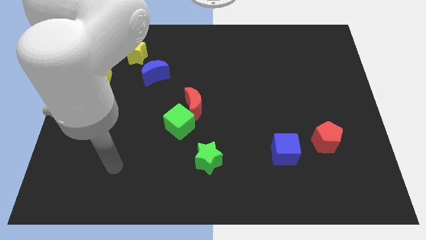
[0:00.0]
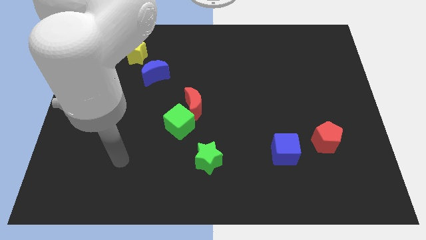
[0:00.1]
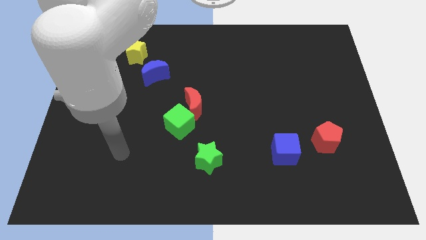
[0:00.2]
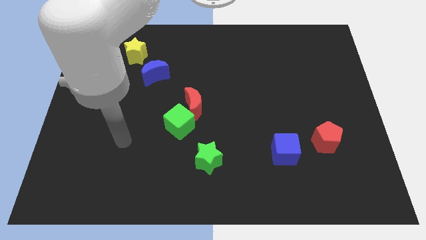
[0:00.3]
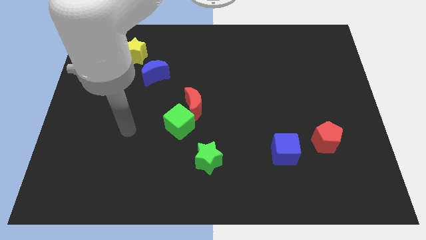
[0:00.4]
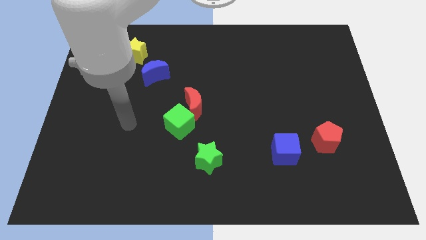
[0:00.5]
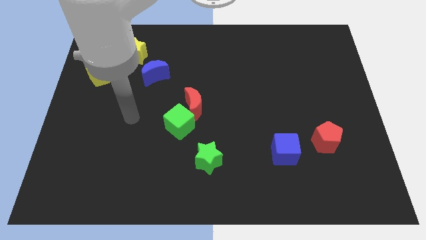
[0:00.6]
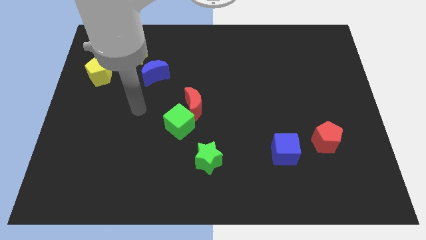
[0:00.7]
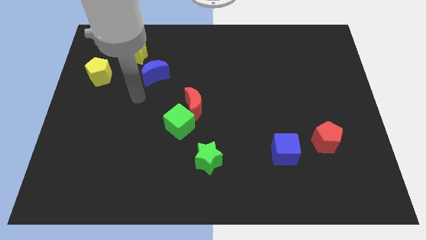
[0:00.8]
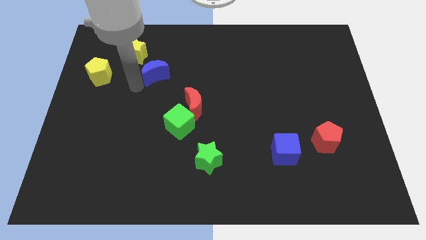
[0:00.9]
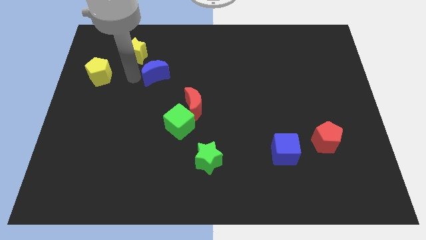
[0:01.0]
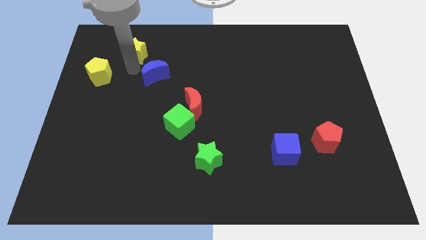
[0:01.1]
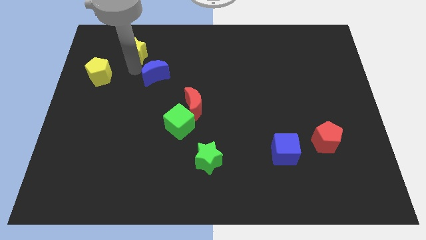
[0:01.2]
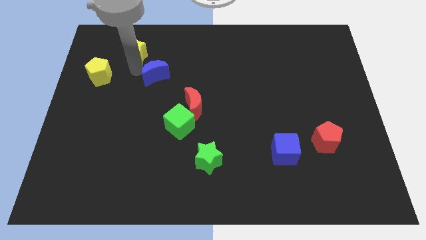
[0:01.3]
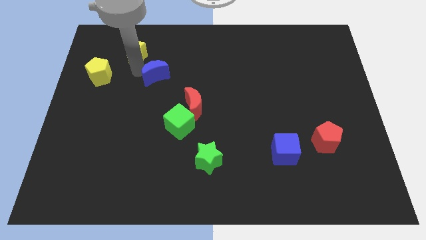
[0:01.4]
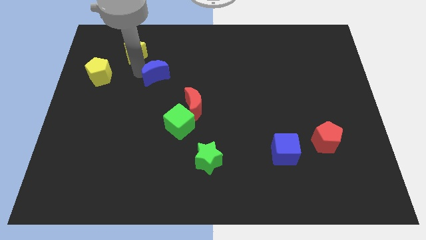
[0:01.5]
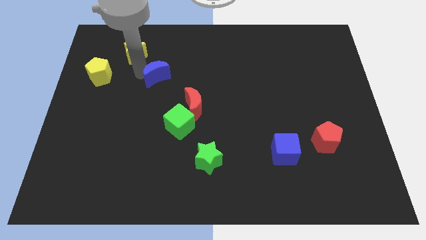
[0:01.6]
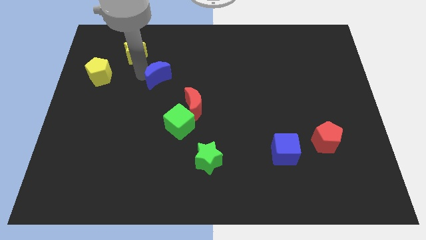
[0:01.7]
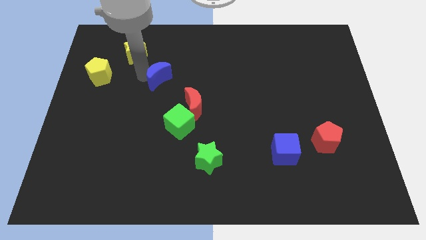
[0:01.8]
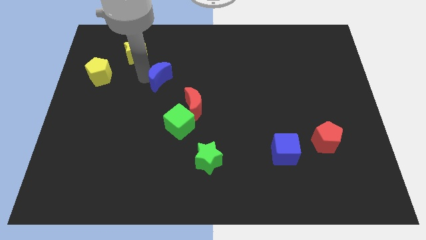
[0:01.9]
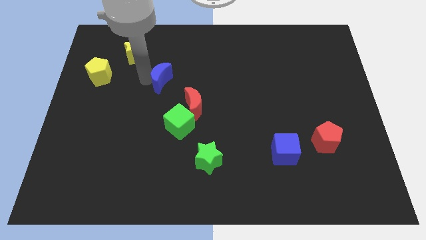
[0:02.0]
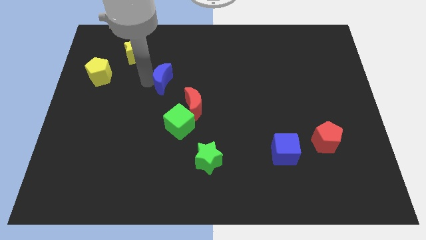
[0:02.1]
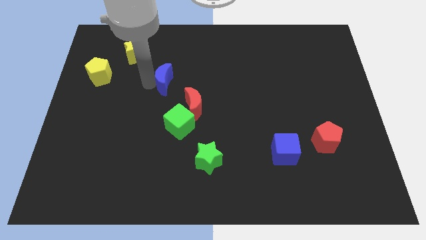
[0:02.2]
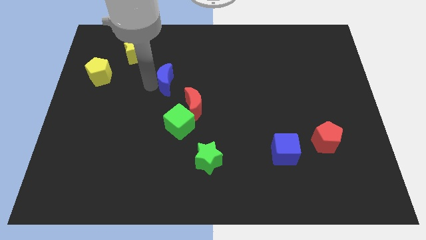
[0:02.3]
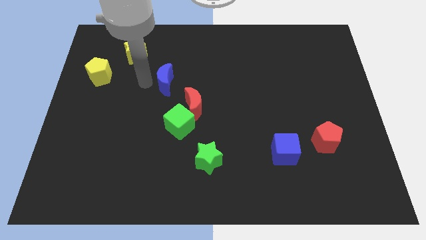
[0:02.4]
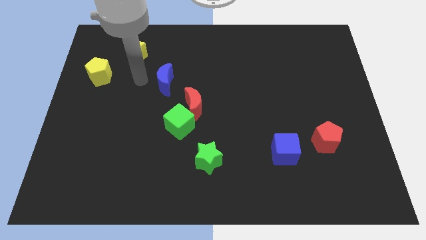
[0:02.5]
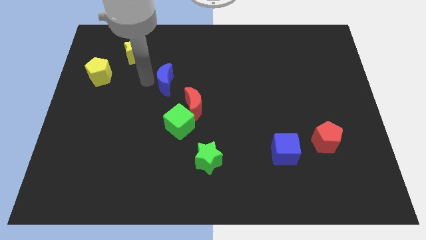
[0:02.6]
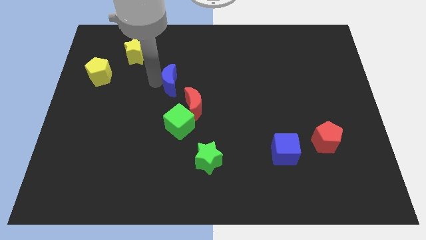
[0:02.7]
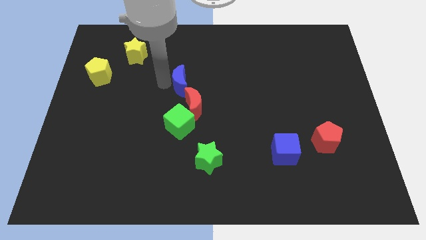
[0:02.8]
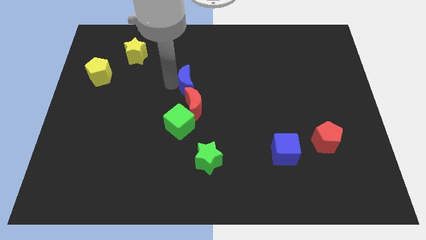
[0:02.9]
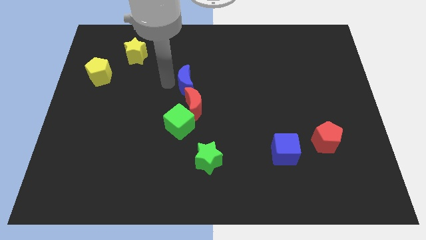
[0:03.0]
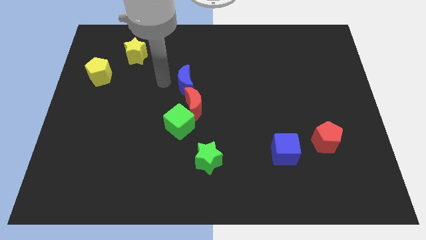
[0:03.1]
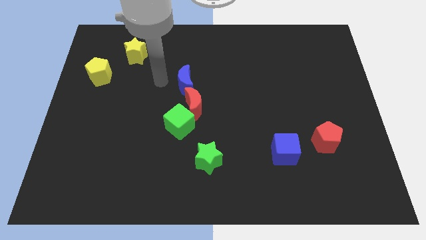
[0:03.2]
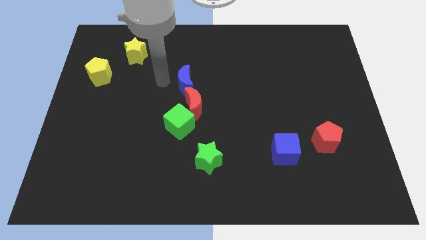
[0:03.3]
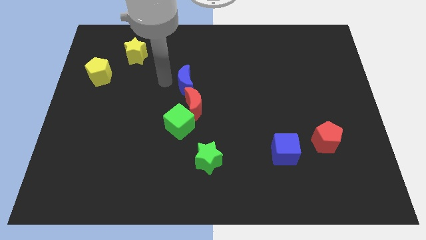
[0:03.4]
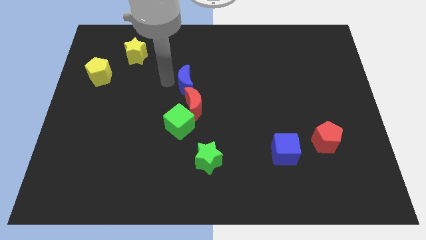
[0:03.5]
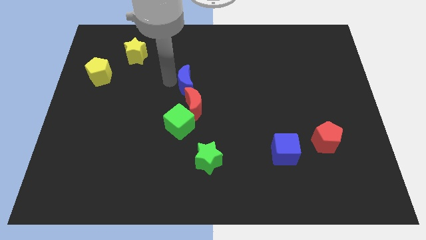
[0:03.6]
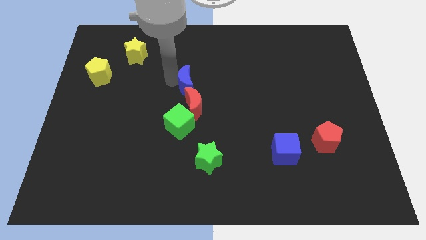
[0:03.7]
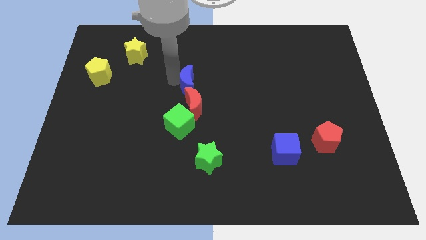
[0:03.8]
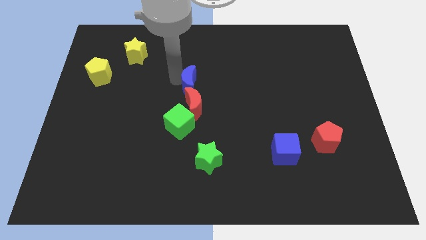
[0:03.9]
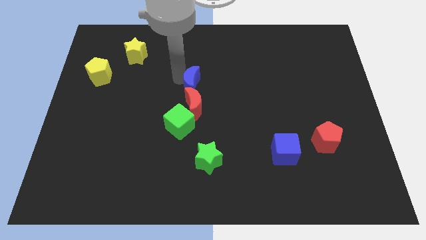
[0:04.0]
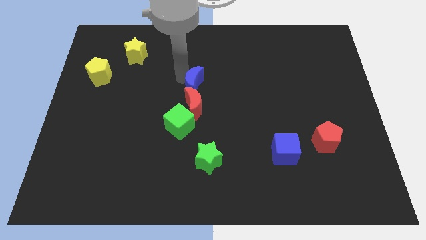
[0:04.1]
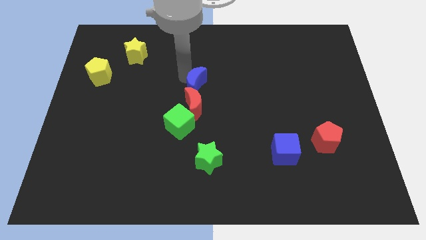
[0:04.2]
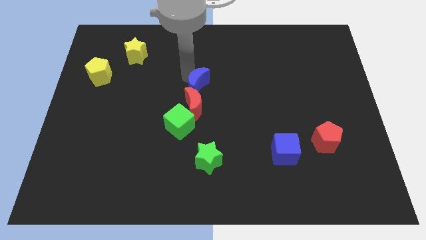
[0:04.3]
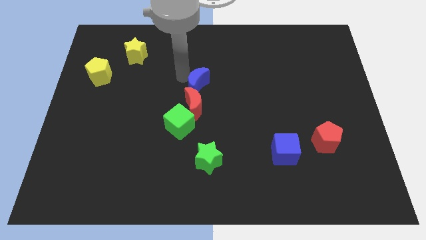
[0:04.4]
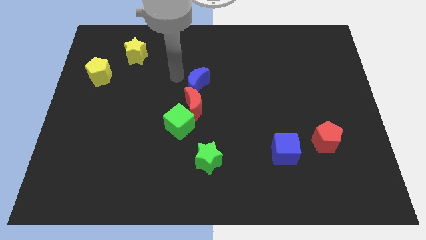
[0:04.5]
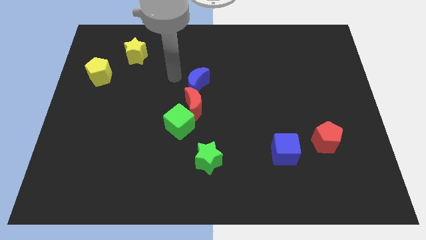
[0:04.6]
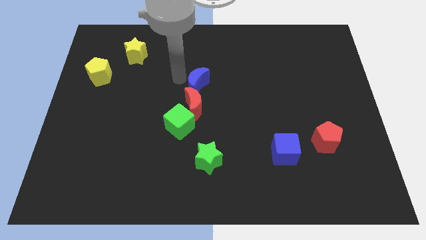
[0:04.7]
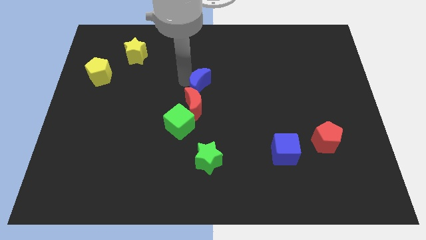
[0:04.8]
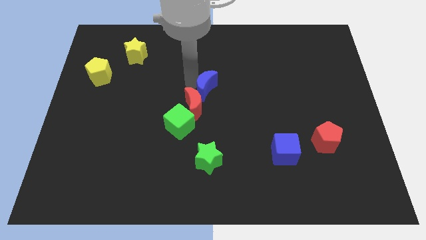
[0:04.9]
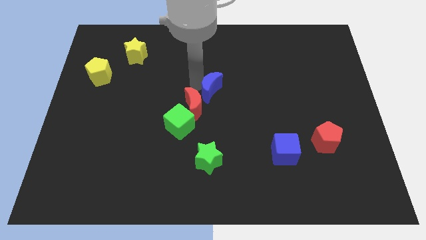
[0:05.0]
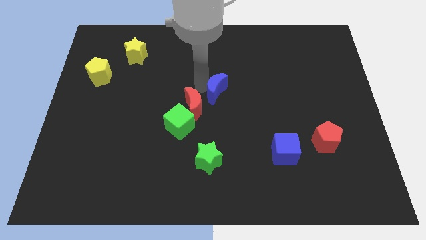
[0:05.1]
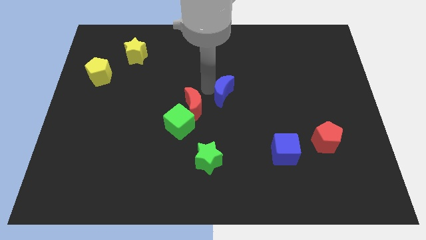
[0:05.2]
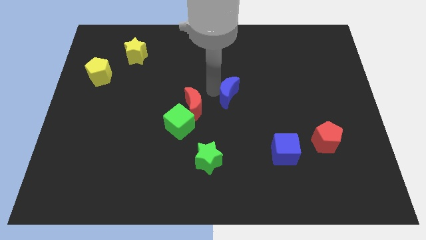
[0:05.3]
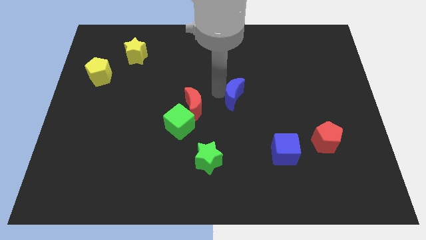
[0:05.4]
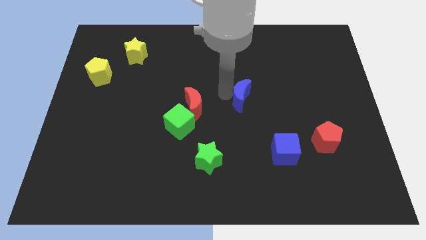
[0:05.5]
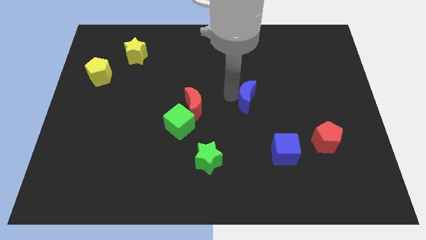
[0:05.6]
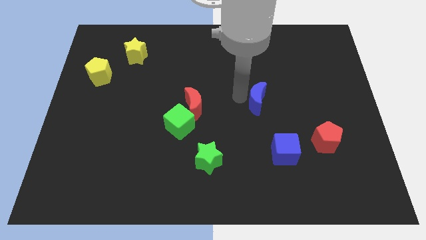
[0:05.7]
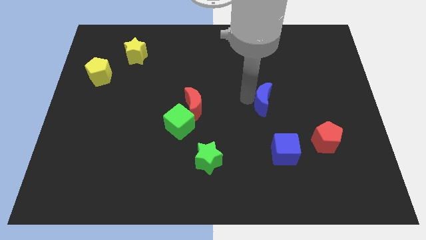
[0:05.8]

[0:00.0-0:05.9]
put the blue moon to the top of the blue cube

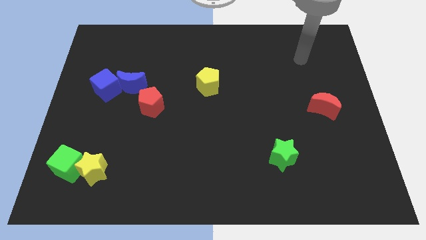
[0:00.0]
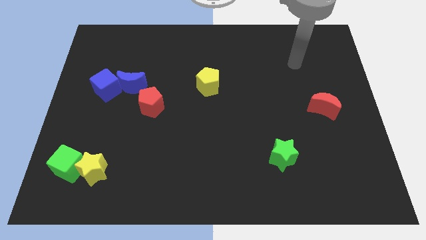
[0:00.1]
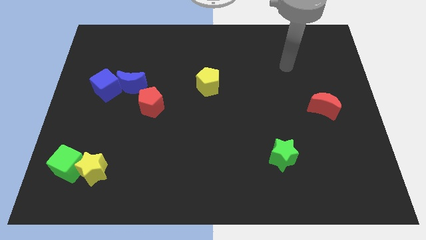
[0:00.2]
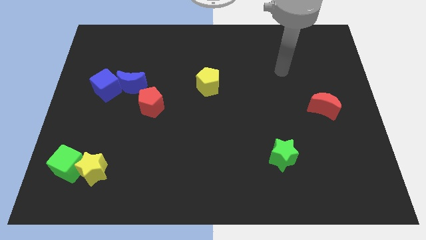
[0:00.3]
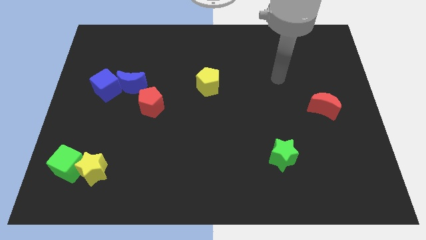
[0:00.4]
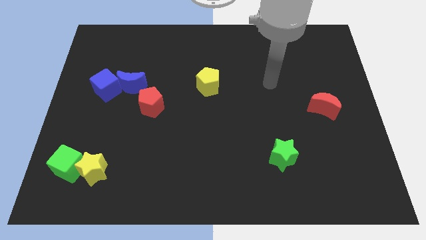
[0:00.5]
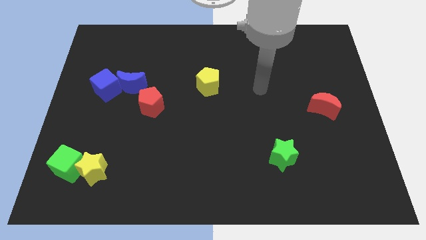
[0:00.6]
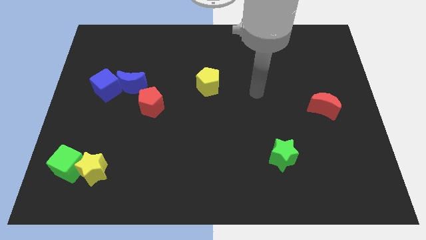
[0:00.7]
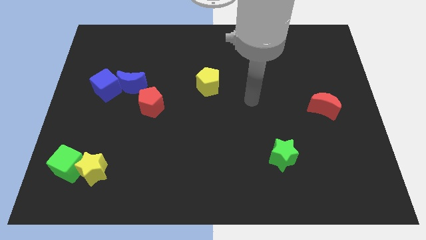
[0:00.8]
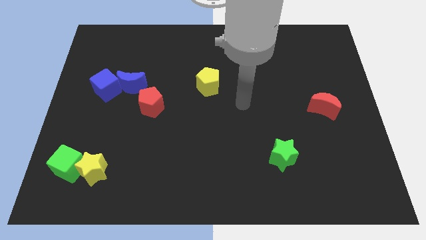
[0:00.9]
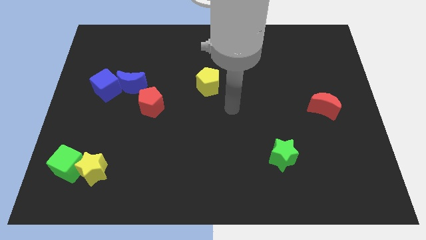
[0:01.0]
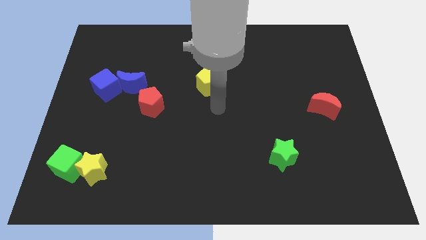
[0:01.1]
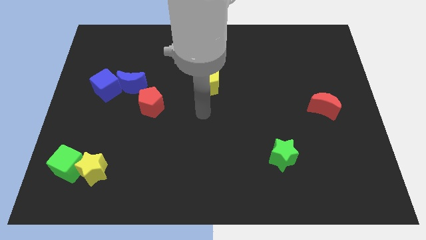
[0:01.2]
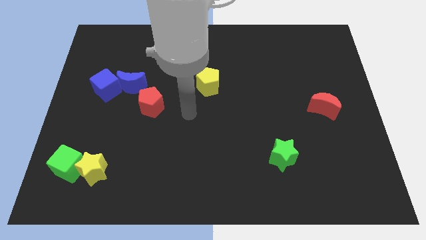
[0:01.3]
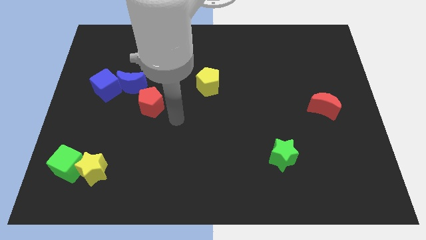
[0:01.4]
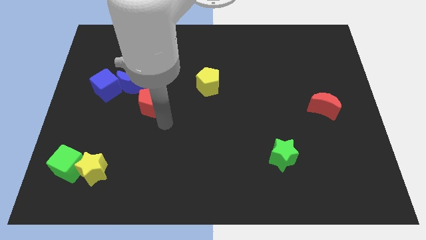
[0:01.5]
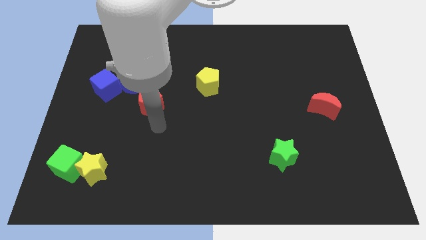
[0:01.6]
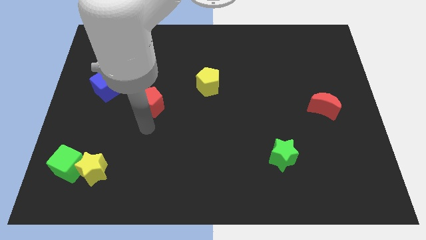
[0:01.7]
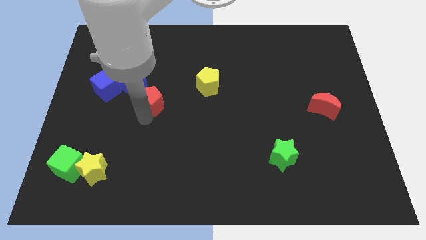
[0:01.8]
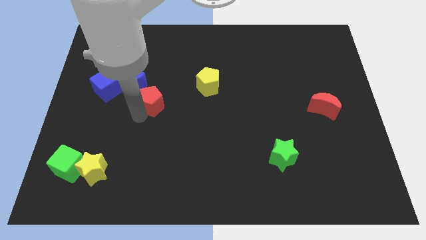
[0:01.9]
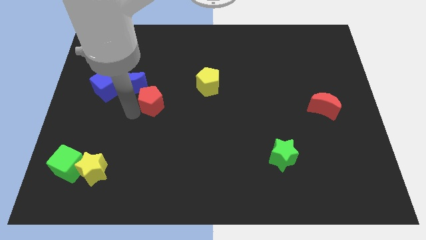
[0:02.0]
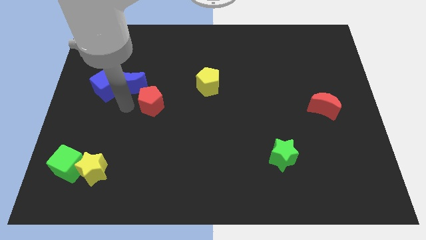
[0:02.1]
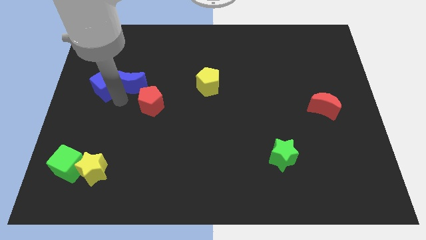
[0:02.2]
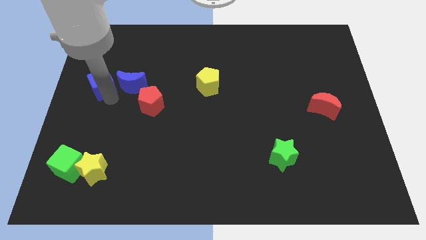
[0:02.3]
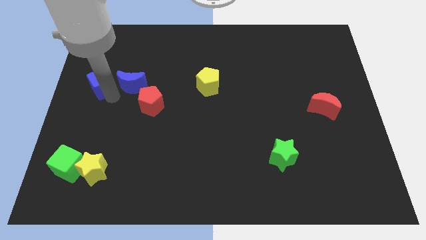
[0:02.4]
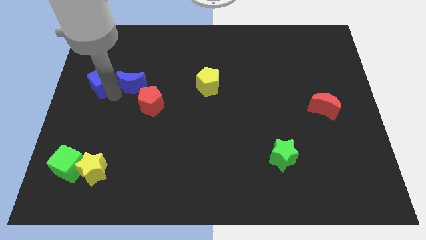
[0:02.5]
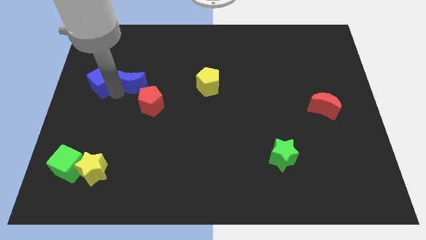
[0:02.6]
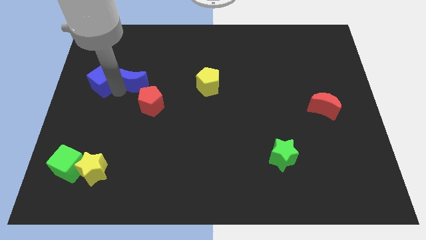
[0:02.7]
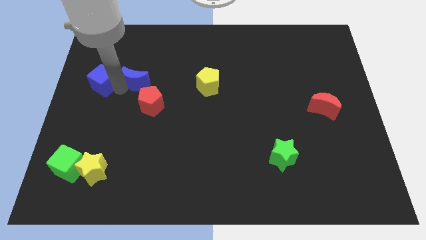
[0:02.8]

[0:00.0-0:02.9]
move the blue moon to the top side of the red pentagon
